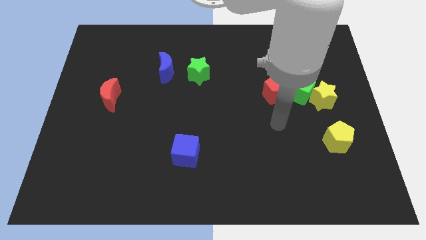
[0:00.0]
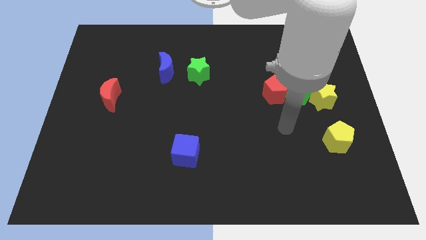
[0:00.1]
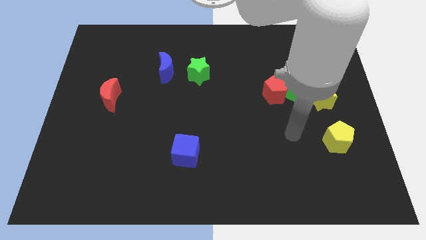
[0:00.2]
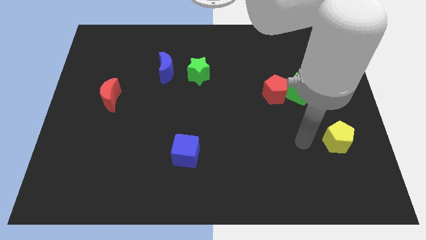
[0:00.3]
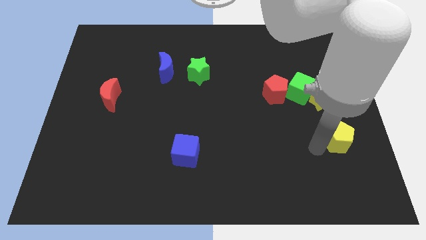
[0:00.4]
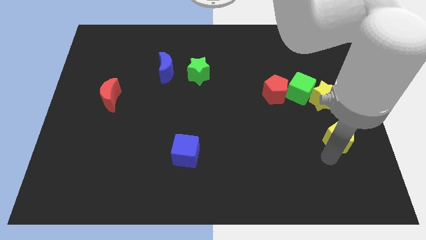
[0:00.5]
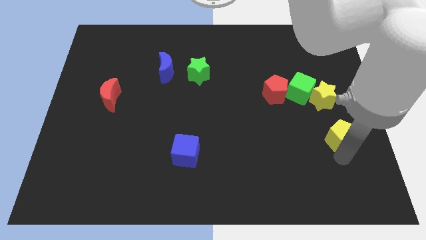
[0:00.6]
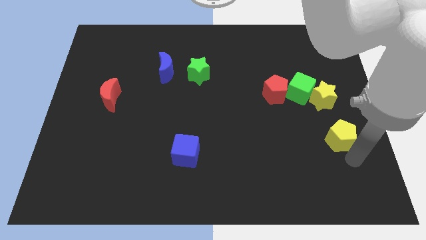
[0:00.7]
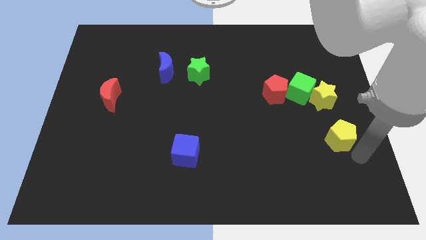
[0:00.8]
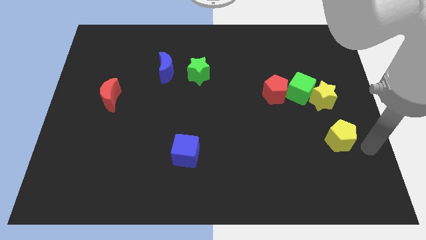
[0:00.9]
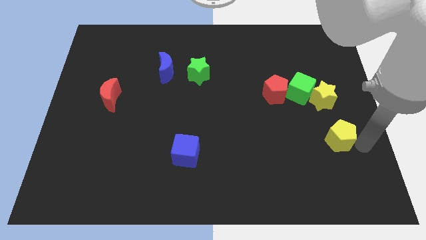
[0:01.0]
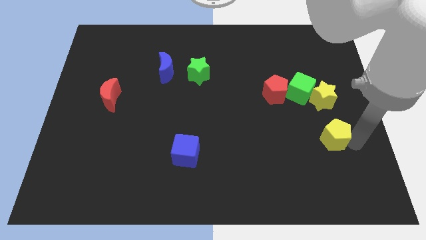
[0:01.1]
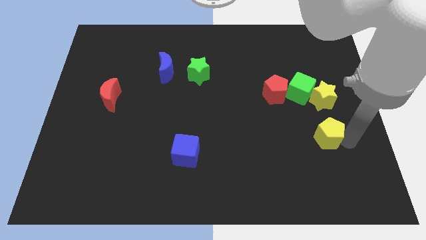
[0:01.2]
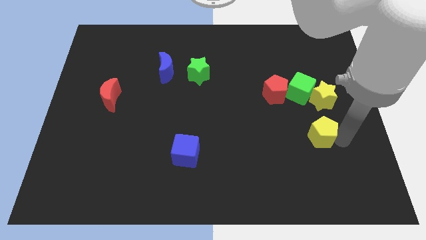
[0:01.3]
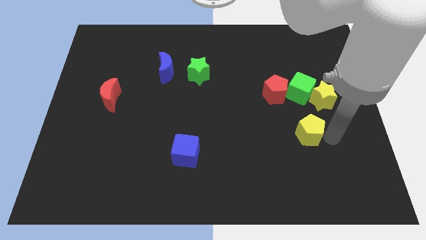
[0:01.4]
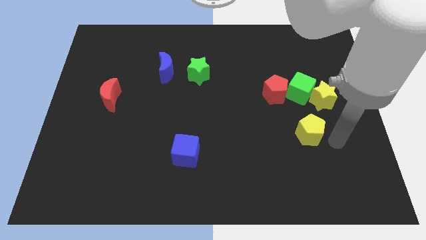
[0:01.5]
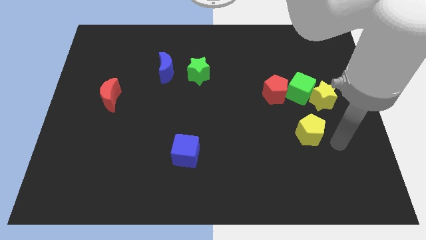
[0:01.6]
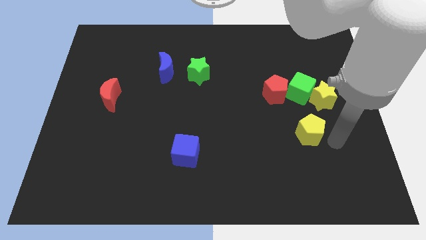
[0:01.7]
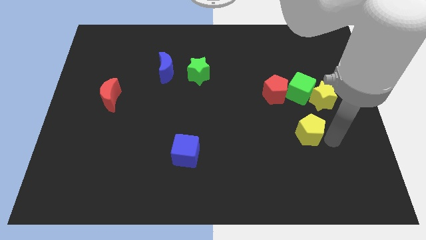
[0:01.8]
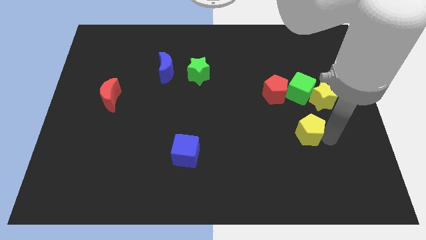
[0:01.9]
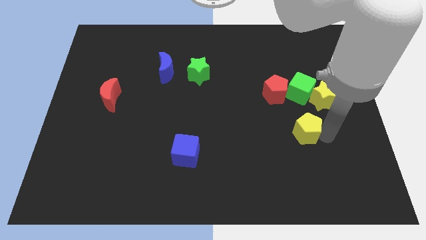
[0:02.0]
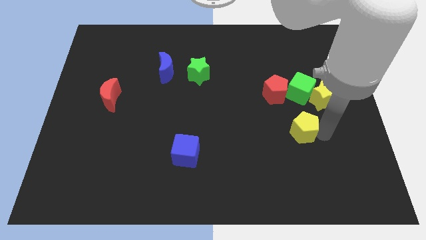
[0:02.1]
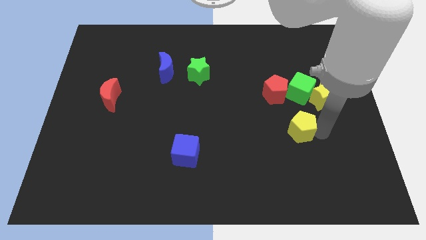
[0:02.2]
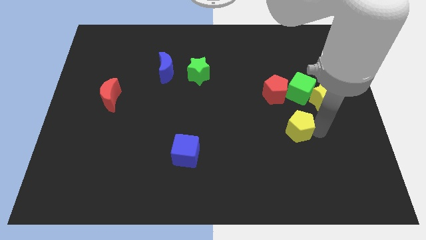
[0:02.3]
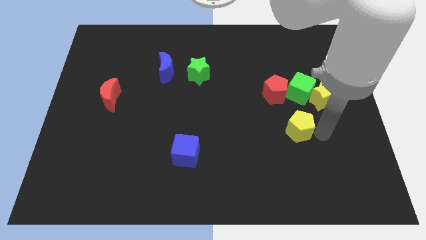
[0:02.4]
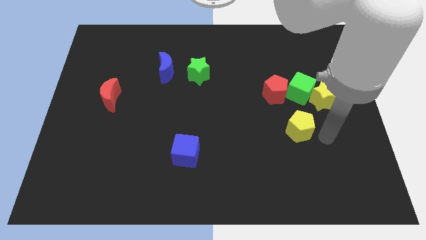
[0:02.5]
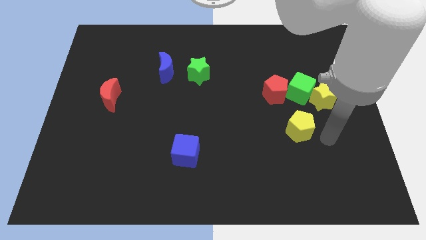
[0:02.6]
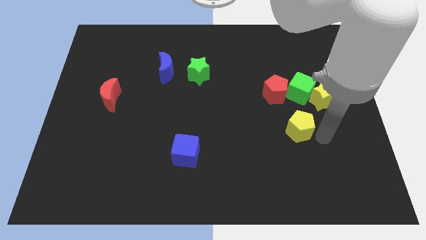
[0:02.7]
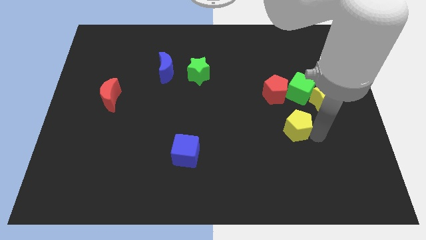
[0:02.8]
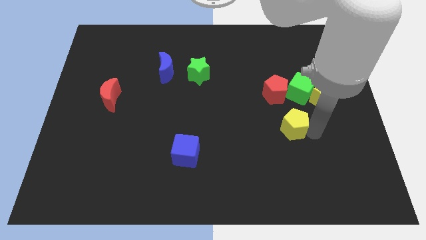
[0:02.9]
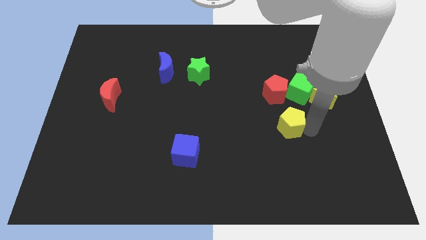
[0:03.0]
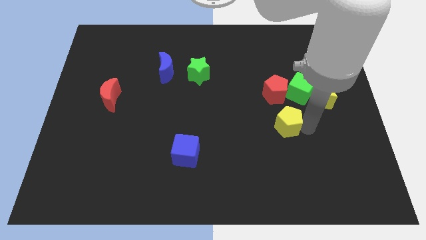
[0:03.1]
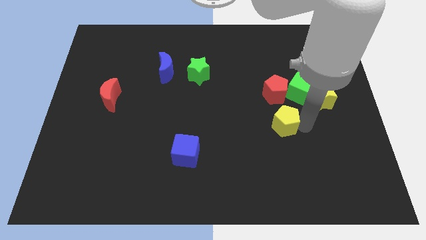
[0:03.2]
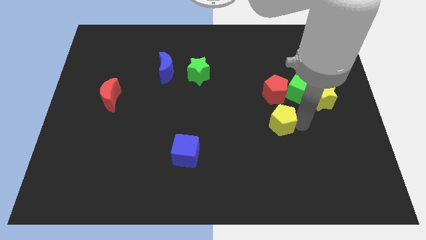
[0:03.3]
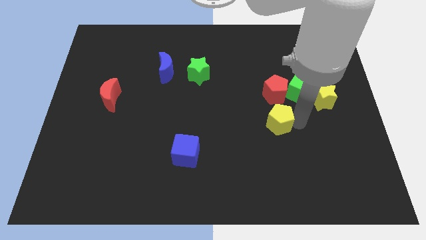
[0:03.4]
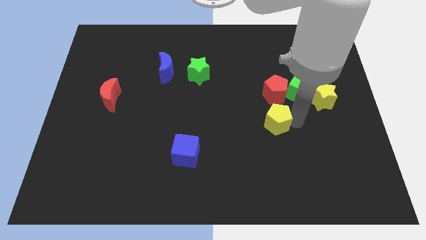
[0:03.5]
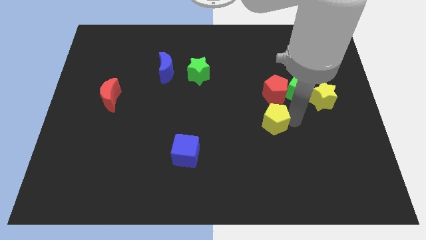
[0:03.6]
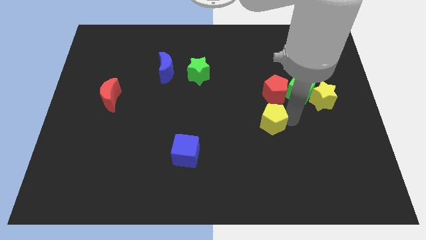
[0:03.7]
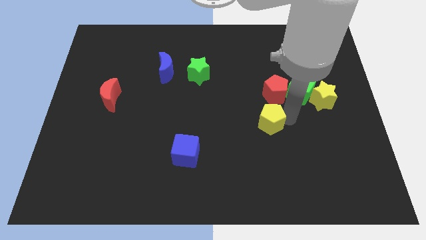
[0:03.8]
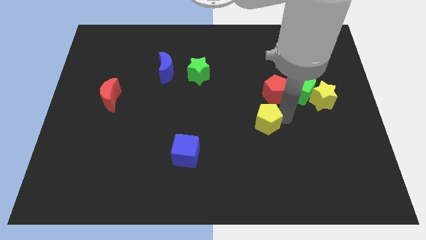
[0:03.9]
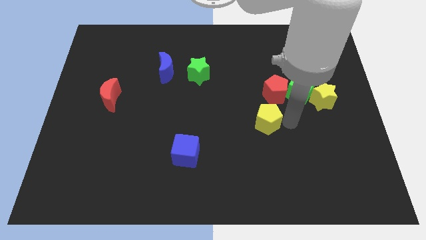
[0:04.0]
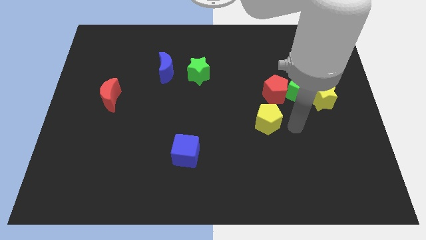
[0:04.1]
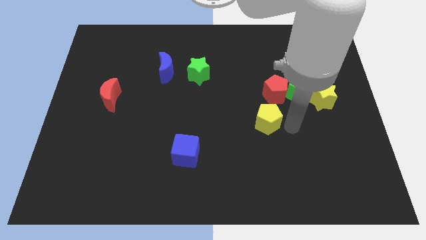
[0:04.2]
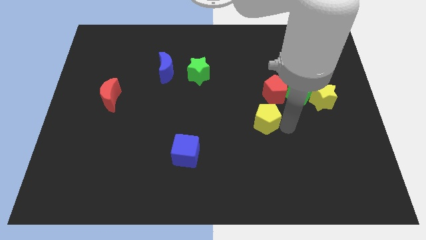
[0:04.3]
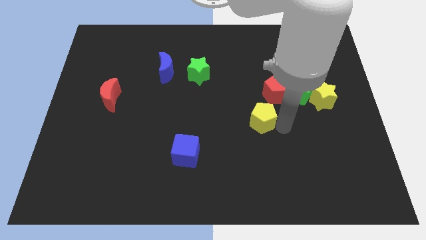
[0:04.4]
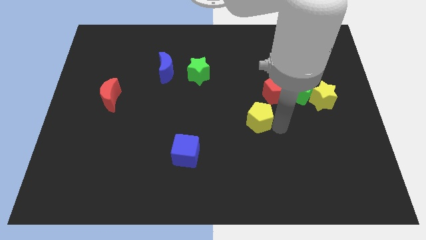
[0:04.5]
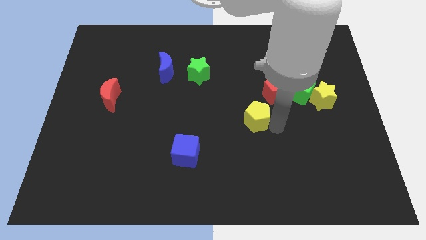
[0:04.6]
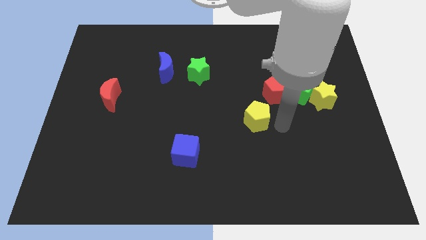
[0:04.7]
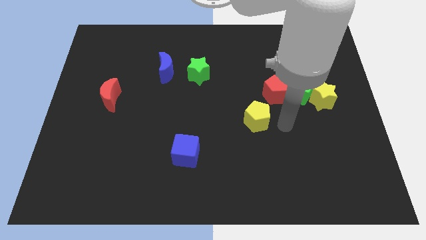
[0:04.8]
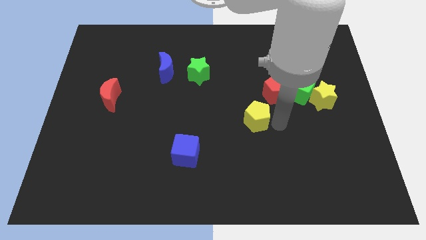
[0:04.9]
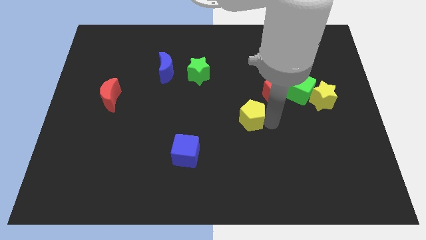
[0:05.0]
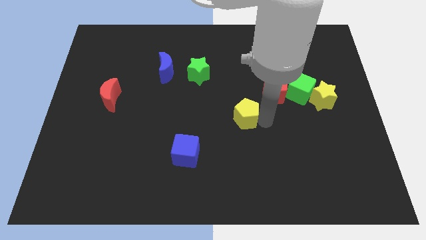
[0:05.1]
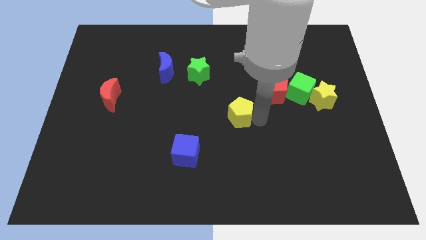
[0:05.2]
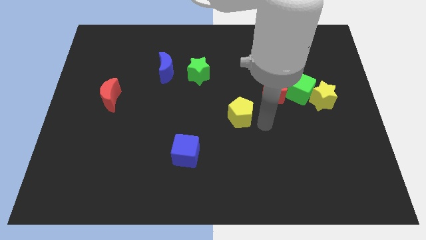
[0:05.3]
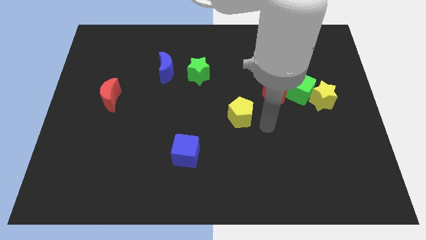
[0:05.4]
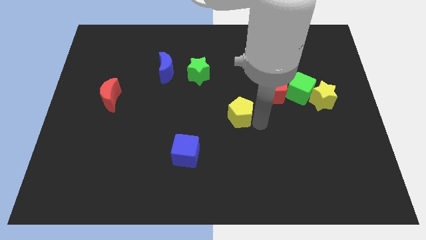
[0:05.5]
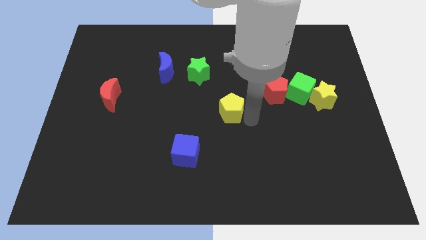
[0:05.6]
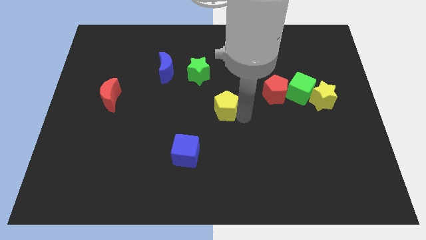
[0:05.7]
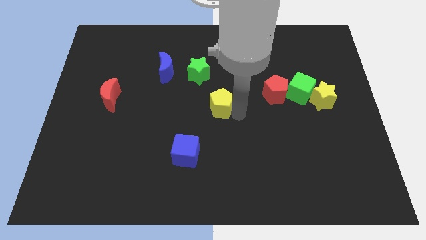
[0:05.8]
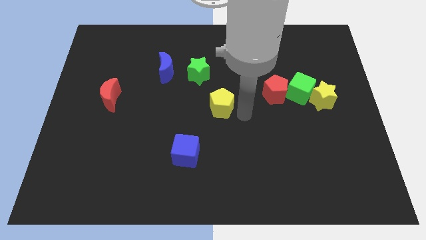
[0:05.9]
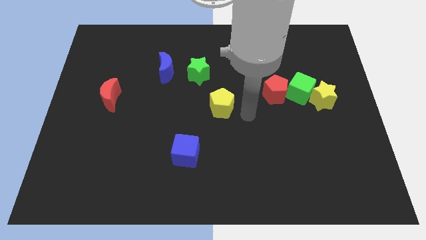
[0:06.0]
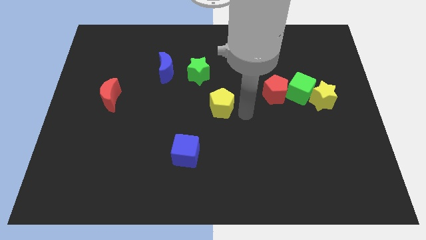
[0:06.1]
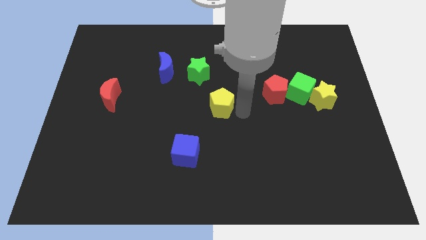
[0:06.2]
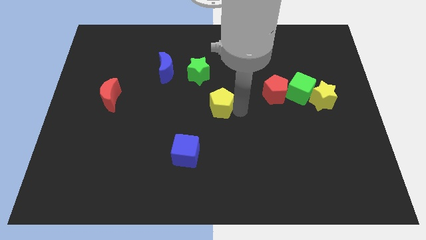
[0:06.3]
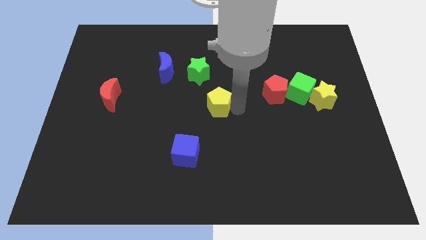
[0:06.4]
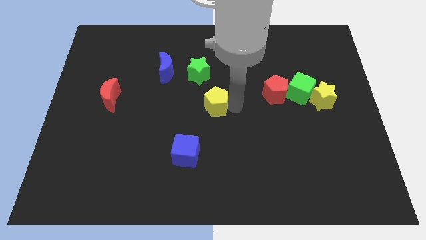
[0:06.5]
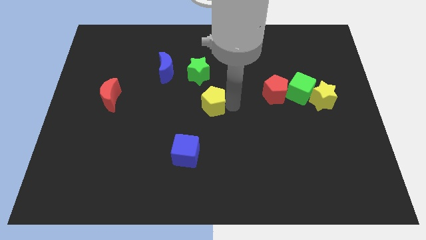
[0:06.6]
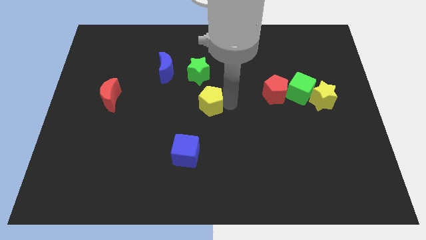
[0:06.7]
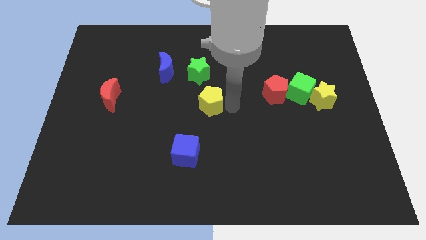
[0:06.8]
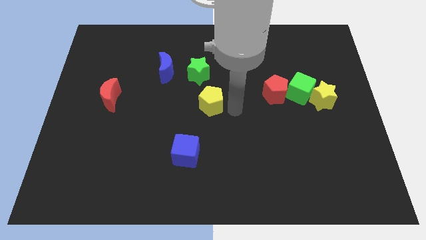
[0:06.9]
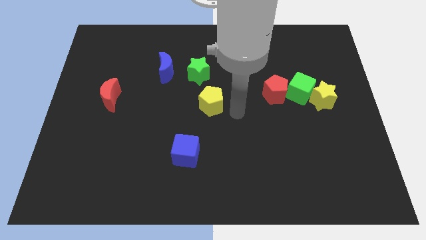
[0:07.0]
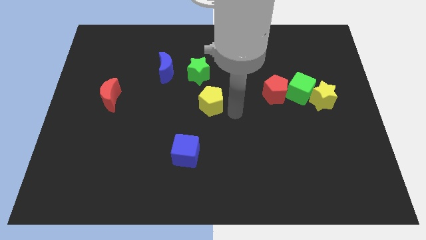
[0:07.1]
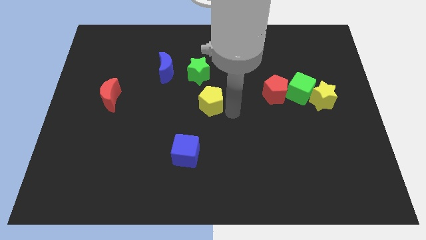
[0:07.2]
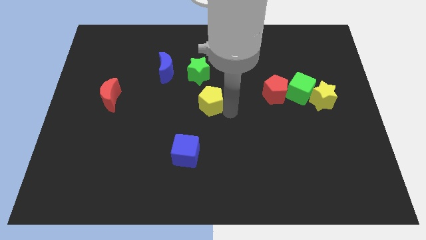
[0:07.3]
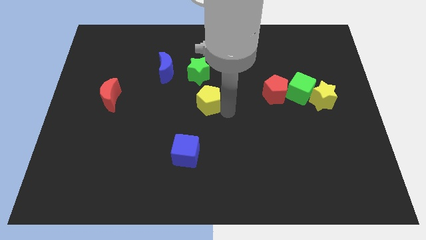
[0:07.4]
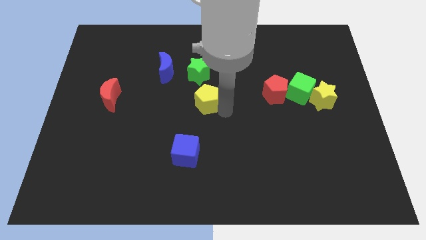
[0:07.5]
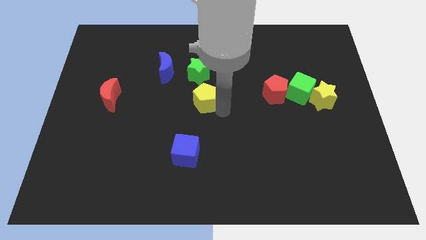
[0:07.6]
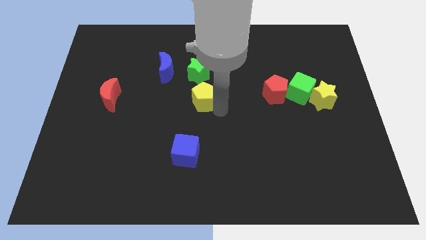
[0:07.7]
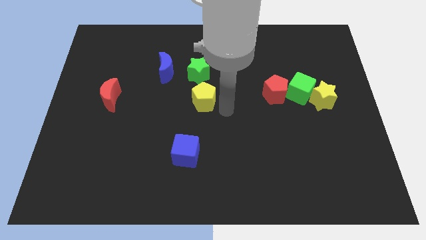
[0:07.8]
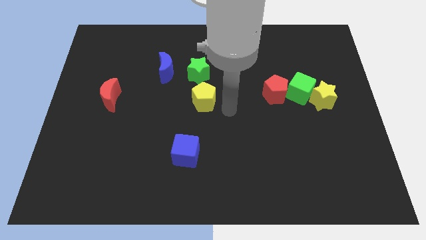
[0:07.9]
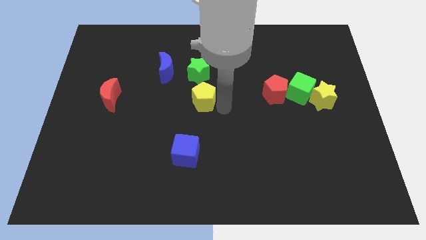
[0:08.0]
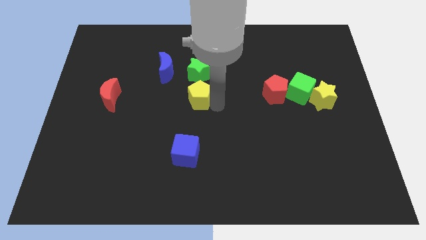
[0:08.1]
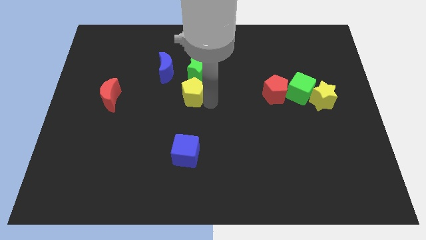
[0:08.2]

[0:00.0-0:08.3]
move the yellow pentagon to the bottom left of the green star
